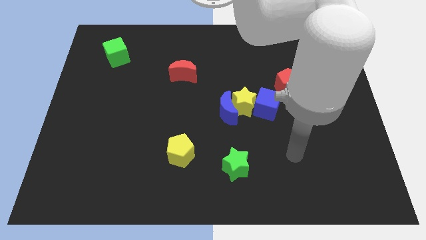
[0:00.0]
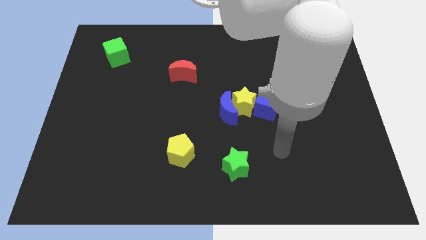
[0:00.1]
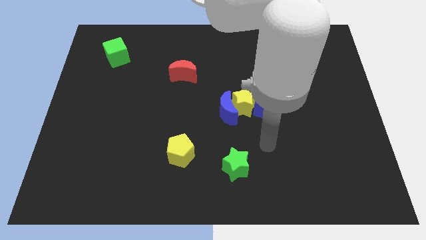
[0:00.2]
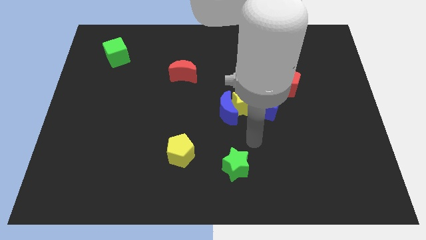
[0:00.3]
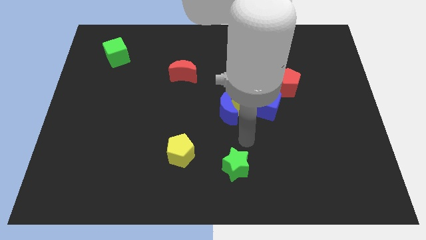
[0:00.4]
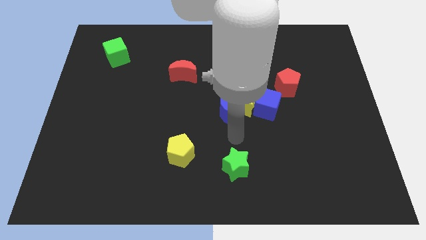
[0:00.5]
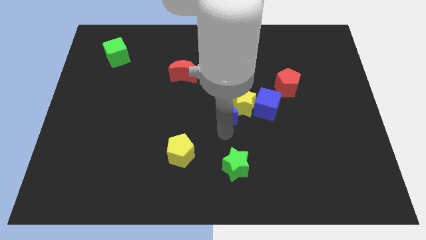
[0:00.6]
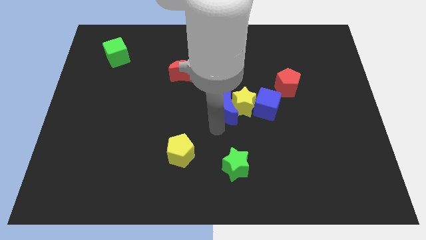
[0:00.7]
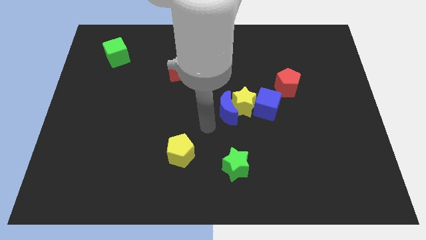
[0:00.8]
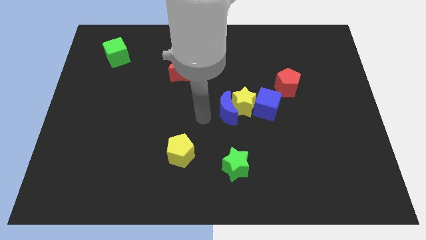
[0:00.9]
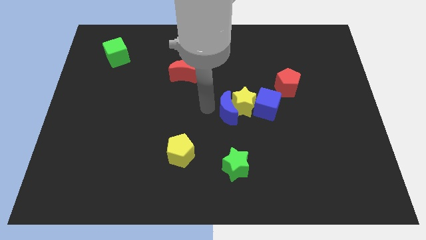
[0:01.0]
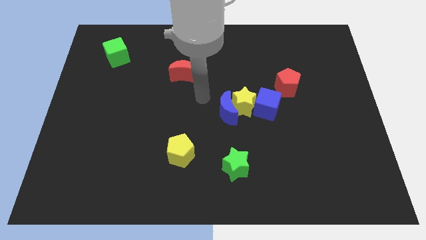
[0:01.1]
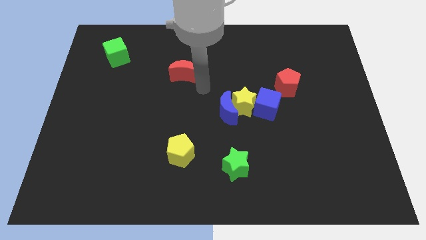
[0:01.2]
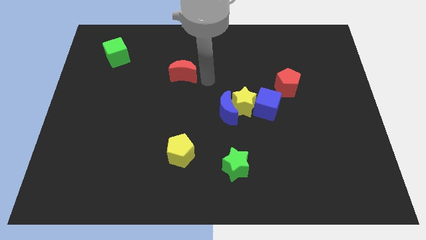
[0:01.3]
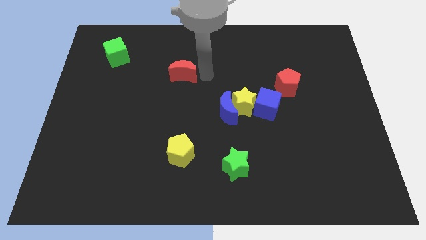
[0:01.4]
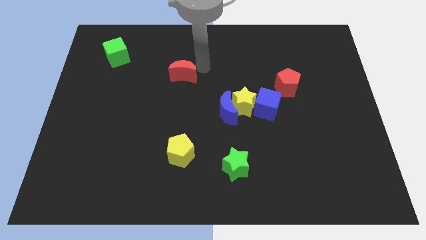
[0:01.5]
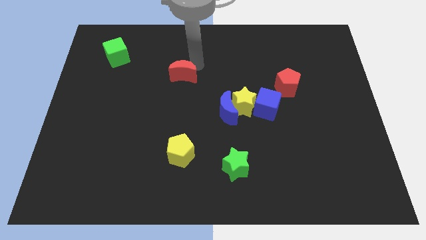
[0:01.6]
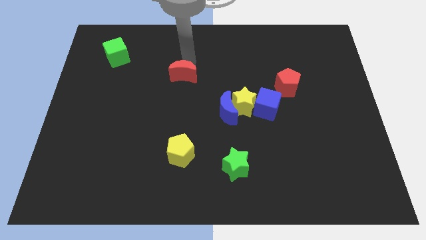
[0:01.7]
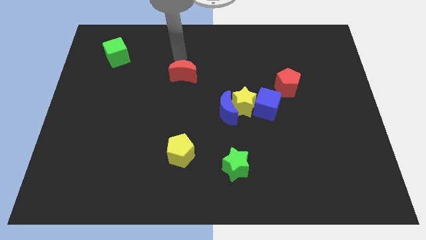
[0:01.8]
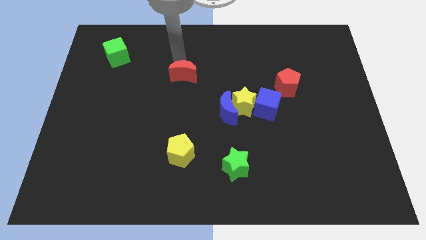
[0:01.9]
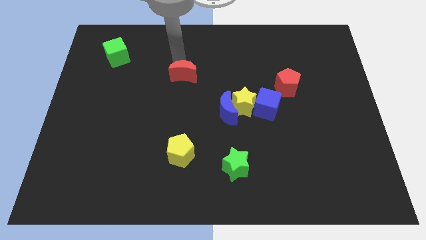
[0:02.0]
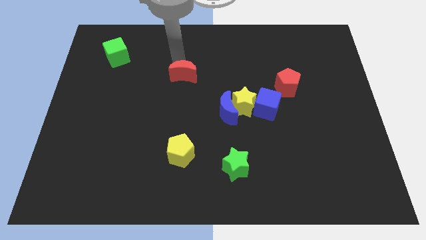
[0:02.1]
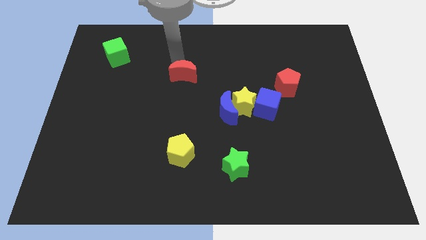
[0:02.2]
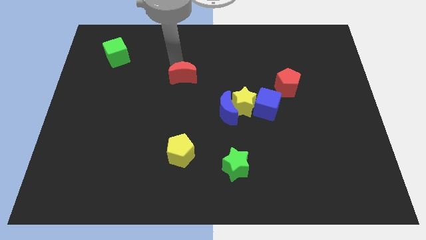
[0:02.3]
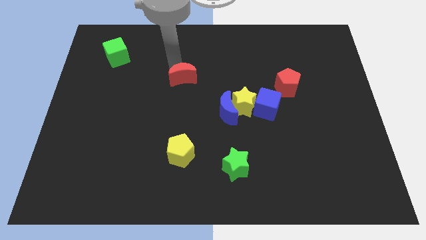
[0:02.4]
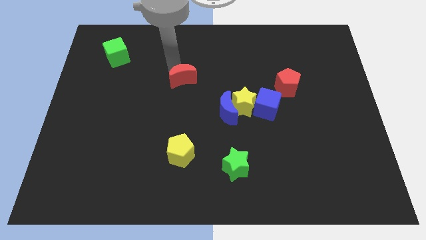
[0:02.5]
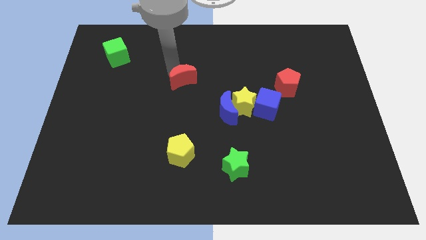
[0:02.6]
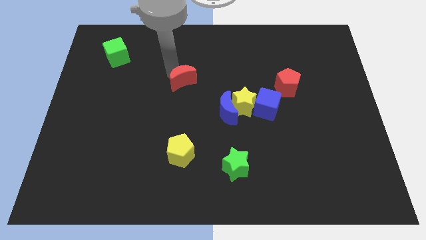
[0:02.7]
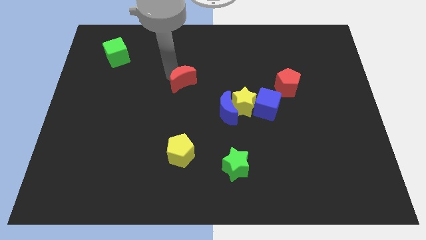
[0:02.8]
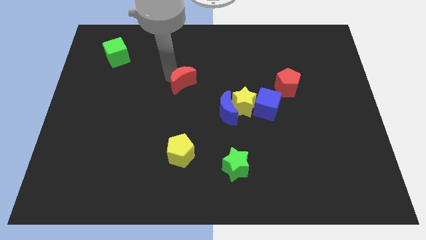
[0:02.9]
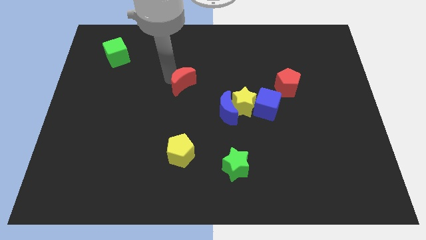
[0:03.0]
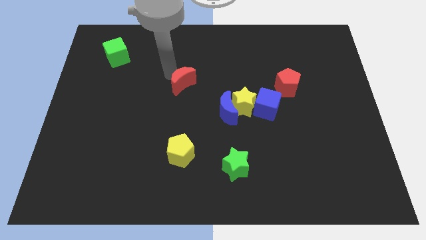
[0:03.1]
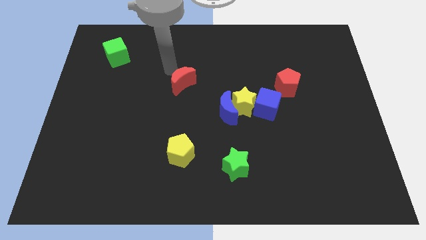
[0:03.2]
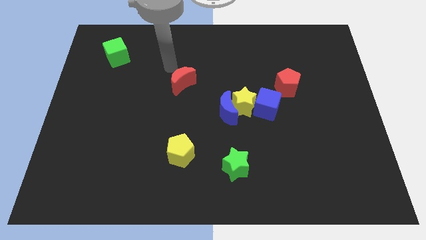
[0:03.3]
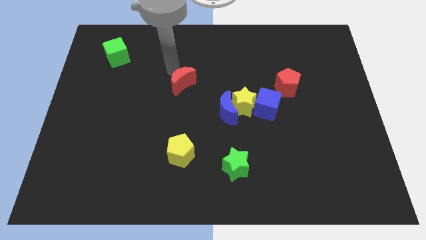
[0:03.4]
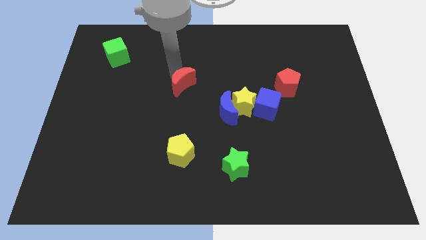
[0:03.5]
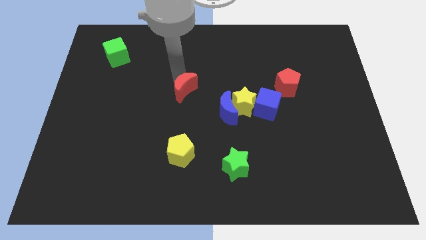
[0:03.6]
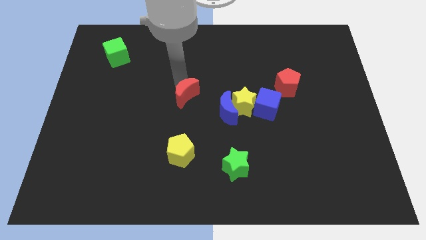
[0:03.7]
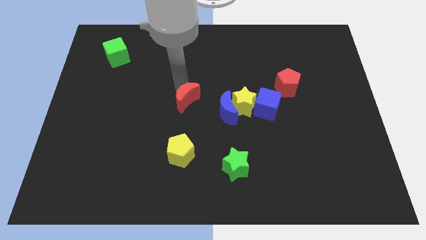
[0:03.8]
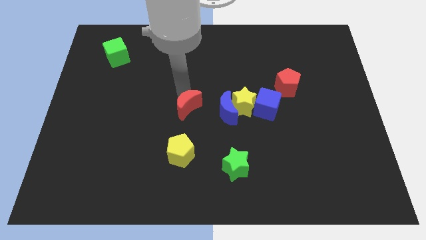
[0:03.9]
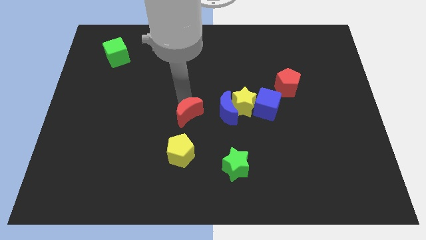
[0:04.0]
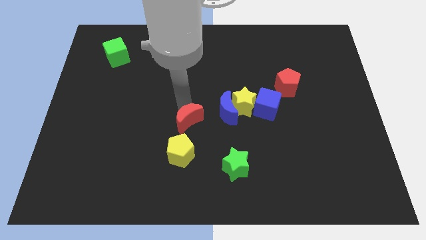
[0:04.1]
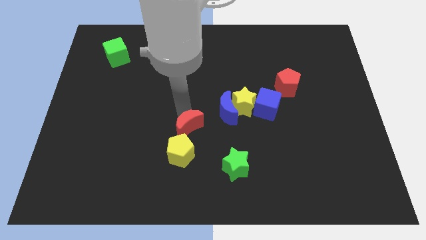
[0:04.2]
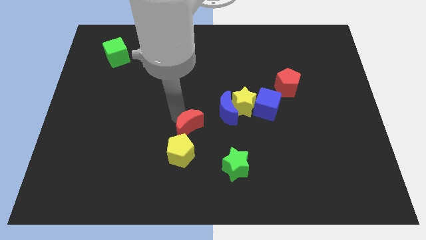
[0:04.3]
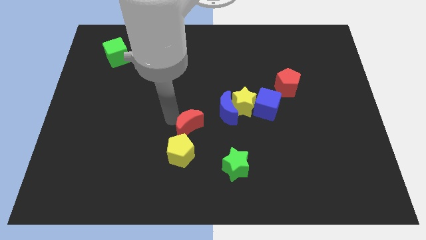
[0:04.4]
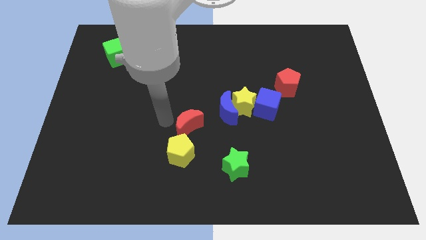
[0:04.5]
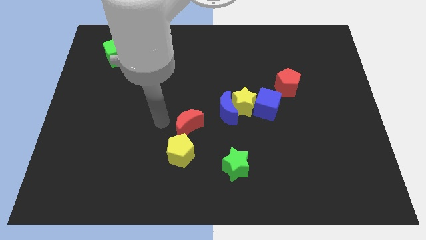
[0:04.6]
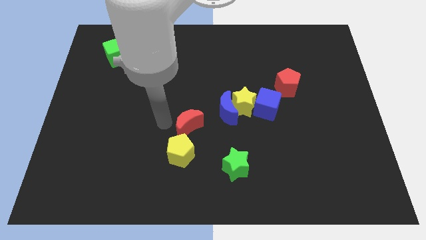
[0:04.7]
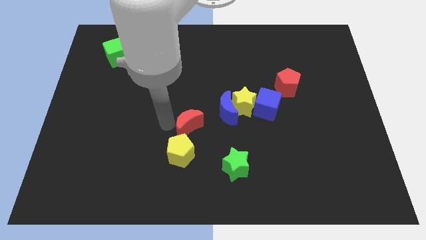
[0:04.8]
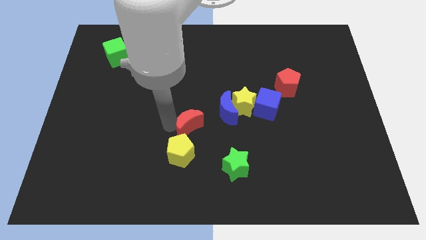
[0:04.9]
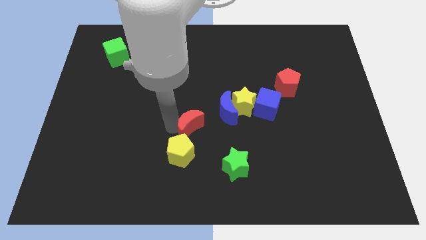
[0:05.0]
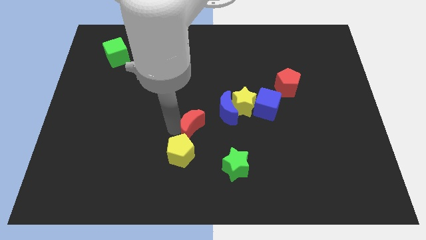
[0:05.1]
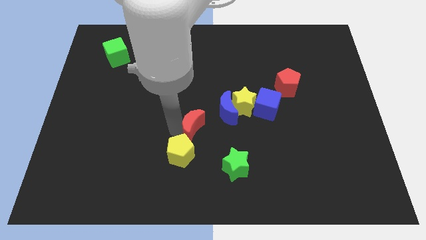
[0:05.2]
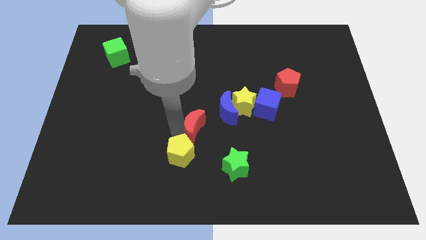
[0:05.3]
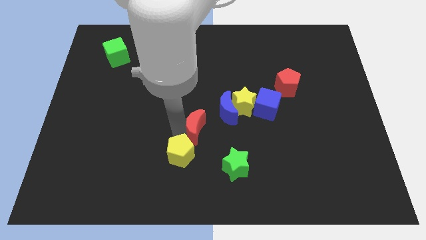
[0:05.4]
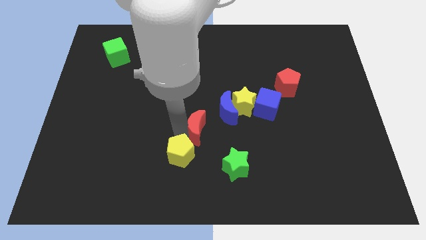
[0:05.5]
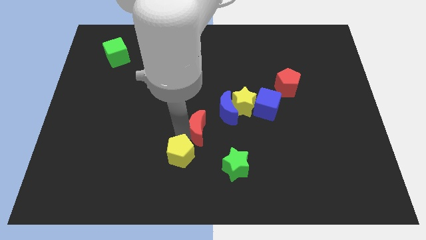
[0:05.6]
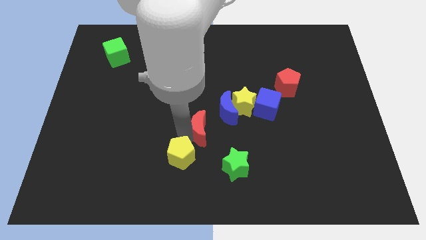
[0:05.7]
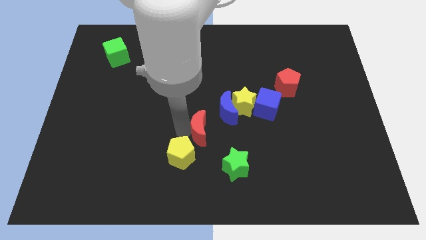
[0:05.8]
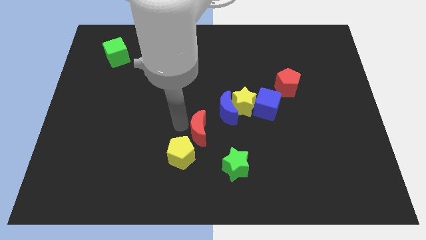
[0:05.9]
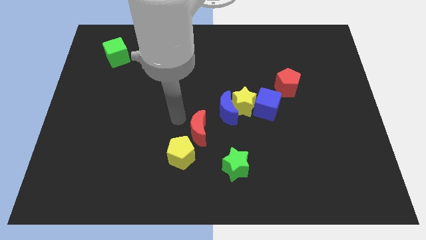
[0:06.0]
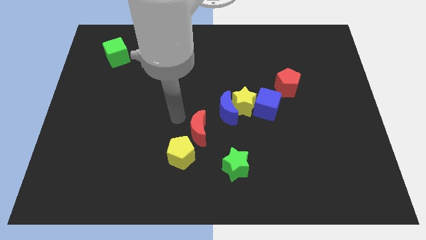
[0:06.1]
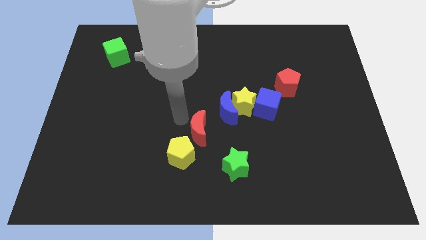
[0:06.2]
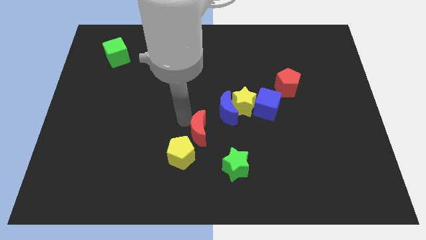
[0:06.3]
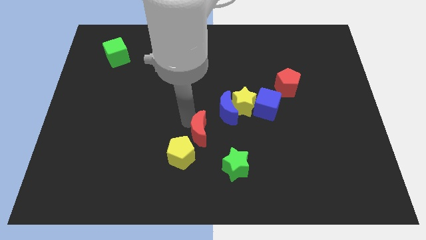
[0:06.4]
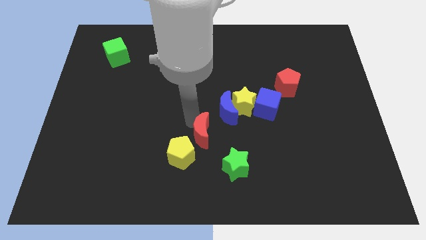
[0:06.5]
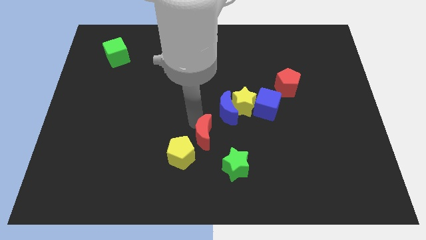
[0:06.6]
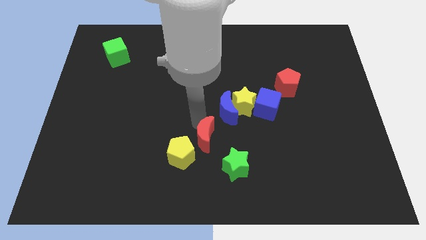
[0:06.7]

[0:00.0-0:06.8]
move the red moon to the bottom side of the blue moon
